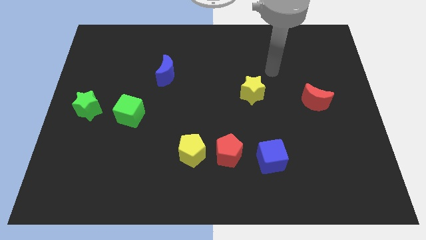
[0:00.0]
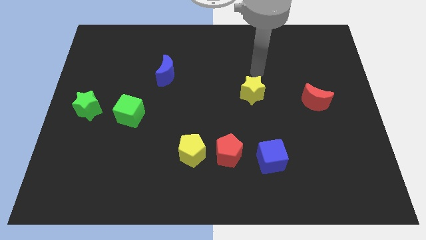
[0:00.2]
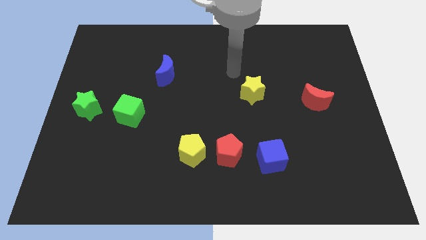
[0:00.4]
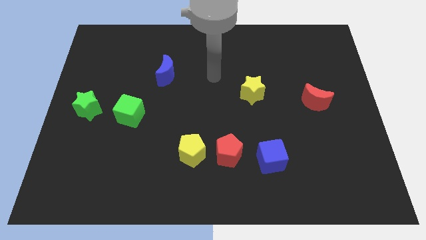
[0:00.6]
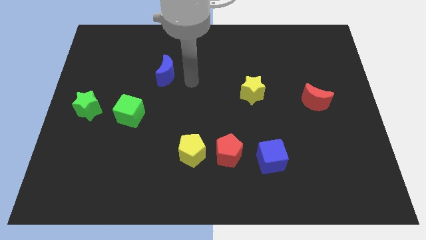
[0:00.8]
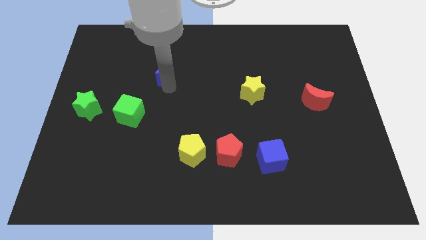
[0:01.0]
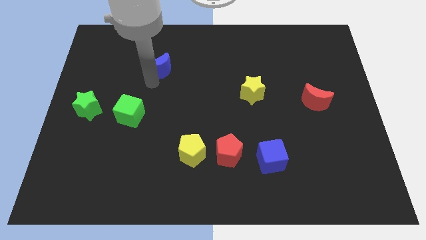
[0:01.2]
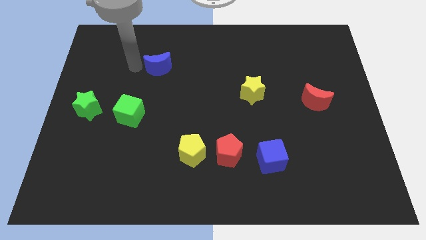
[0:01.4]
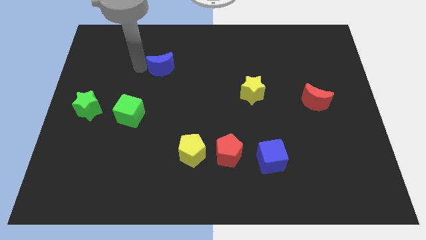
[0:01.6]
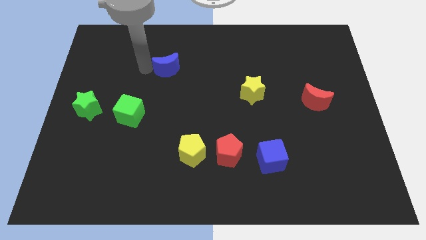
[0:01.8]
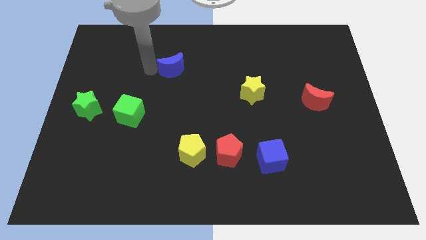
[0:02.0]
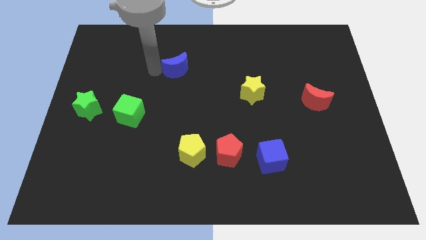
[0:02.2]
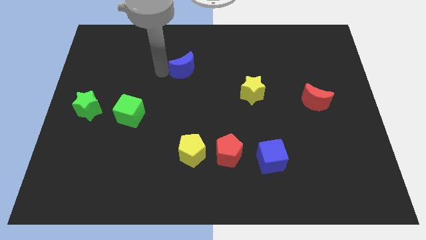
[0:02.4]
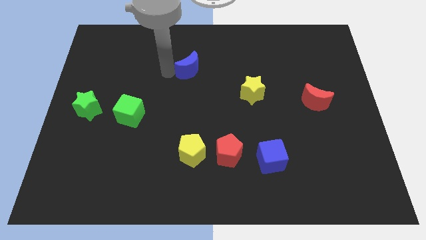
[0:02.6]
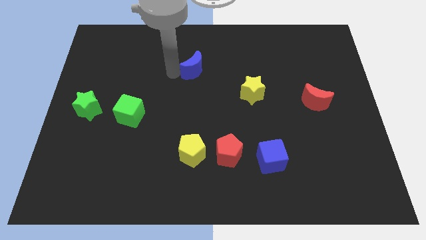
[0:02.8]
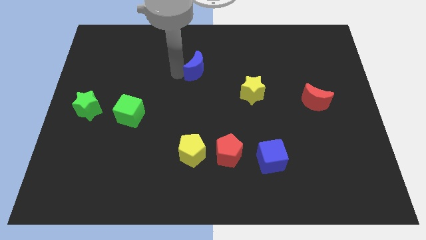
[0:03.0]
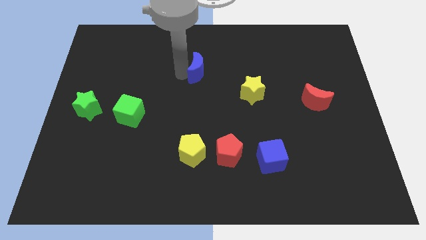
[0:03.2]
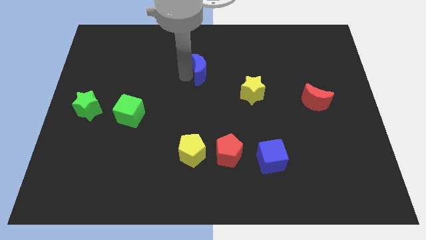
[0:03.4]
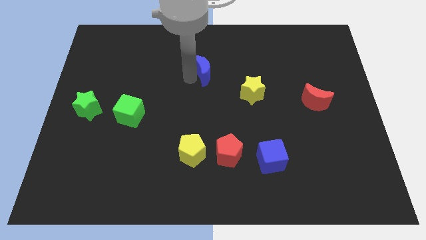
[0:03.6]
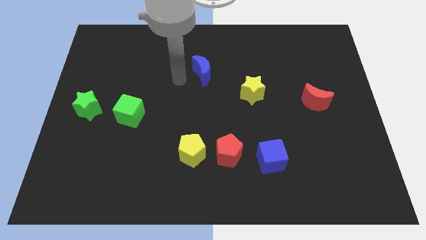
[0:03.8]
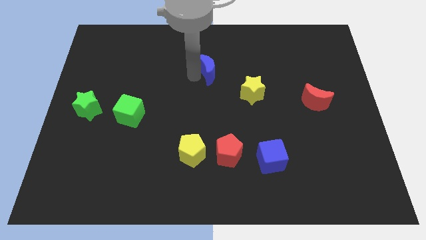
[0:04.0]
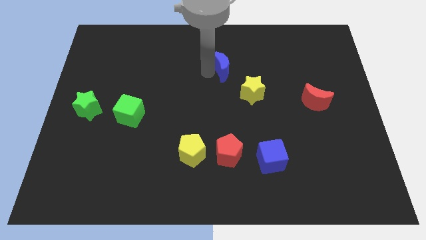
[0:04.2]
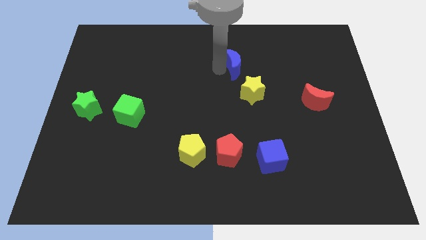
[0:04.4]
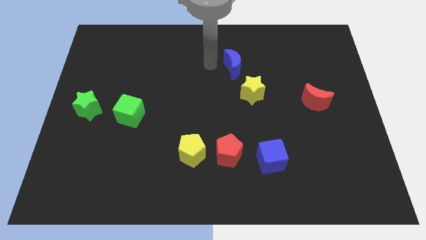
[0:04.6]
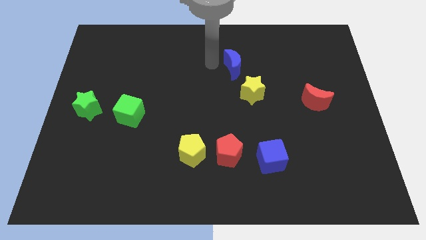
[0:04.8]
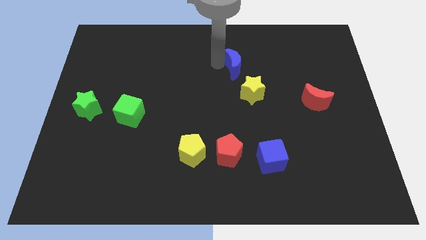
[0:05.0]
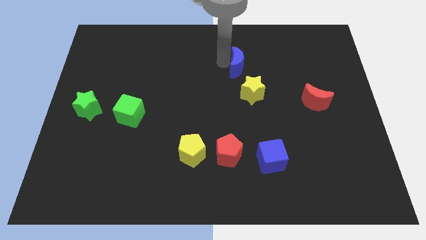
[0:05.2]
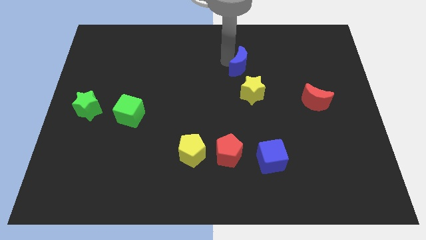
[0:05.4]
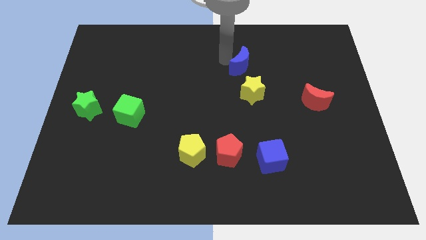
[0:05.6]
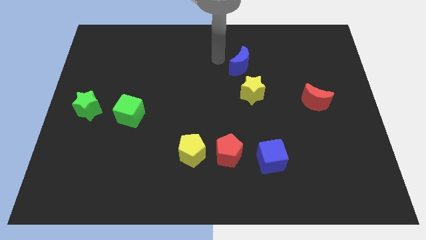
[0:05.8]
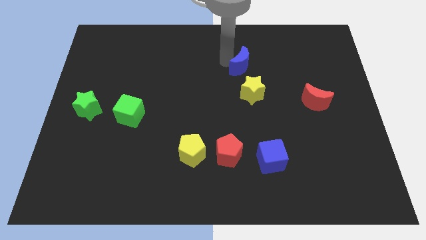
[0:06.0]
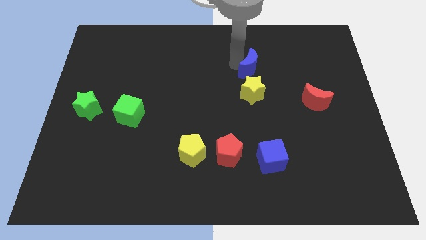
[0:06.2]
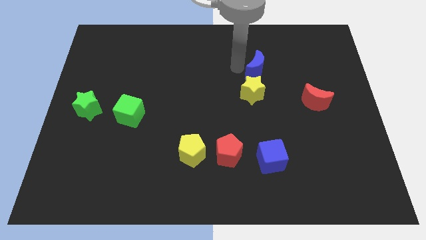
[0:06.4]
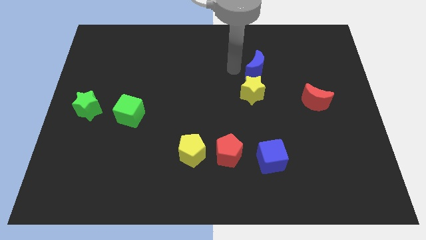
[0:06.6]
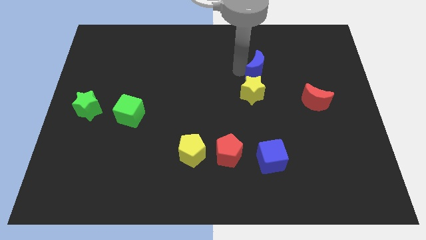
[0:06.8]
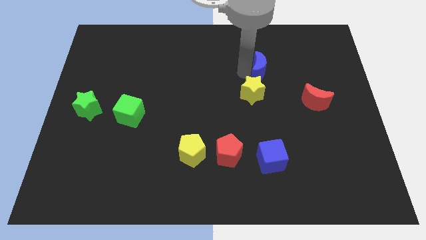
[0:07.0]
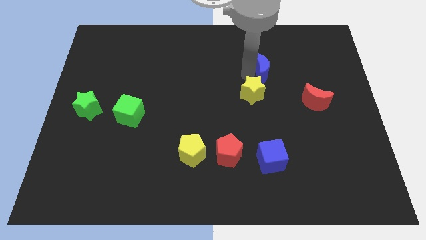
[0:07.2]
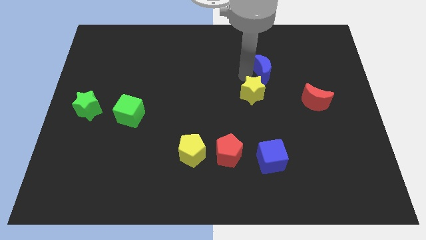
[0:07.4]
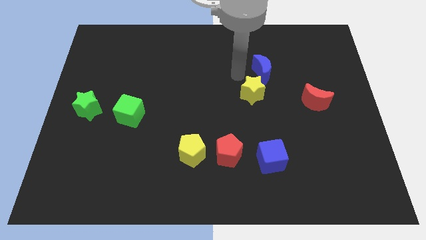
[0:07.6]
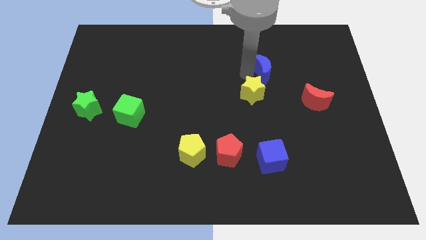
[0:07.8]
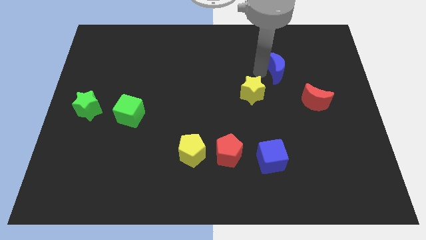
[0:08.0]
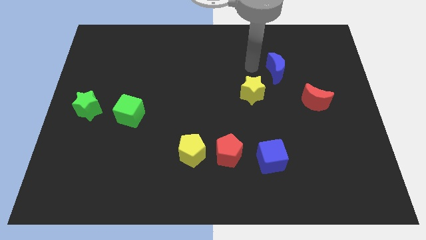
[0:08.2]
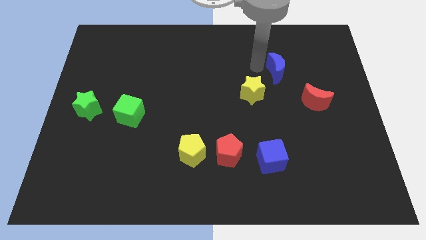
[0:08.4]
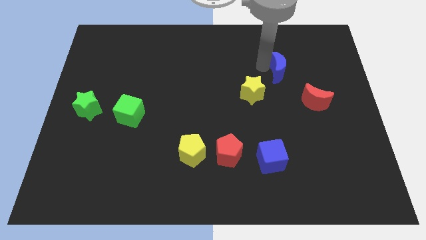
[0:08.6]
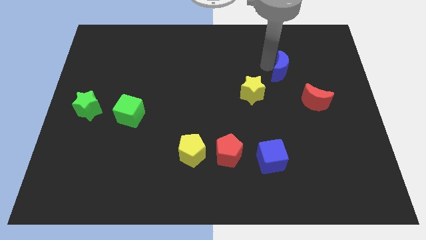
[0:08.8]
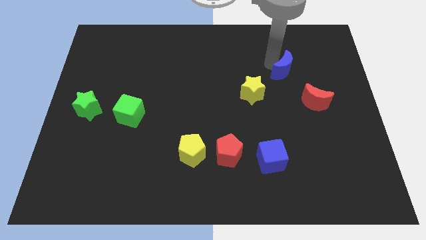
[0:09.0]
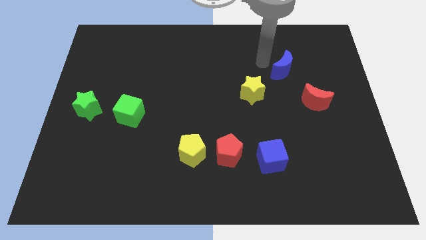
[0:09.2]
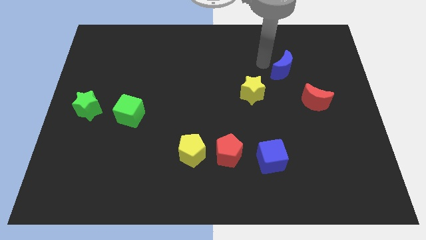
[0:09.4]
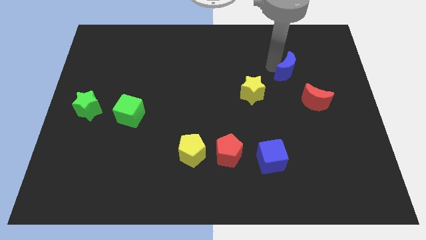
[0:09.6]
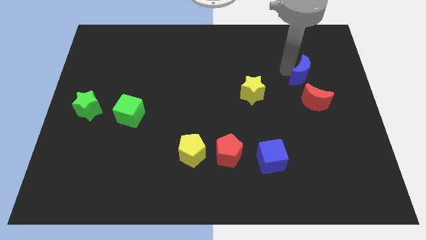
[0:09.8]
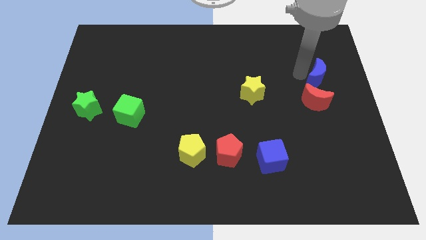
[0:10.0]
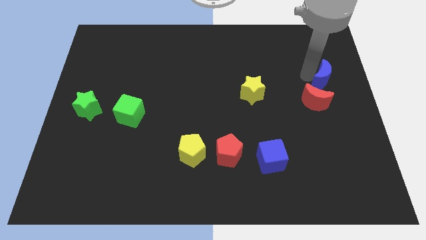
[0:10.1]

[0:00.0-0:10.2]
move the blue moon to the right side

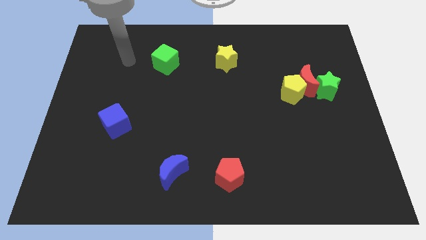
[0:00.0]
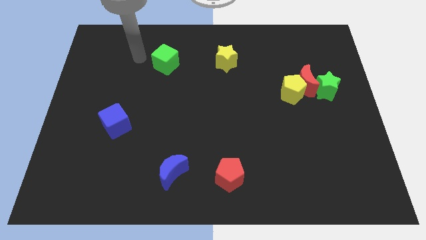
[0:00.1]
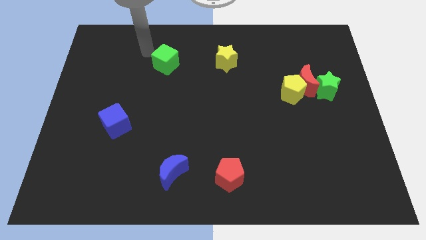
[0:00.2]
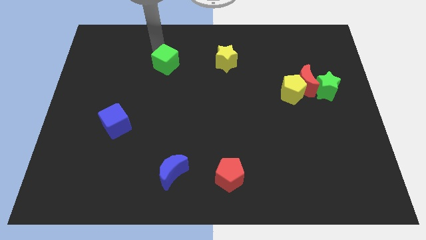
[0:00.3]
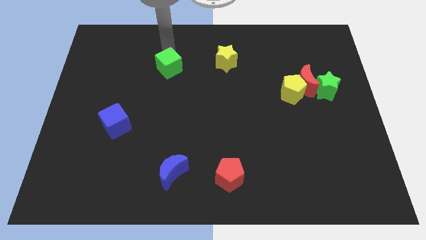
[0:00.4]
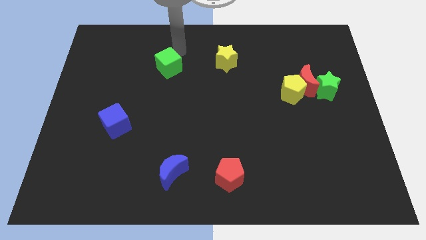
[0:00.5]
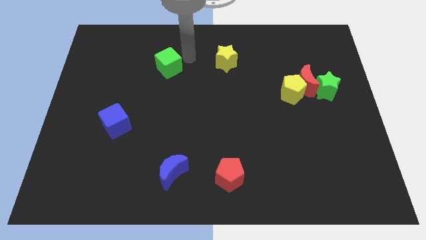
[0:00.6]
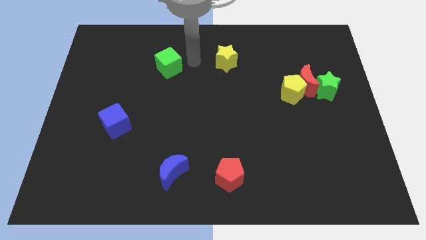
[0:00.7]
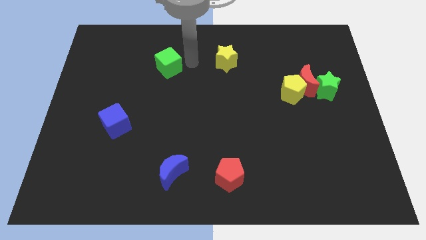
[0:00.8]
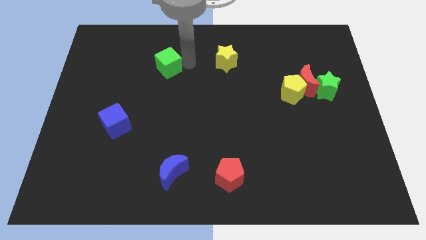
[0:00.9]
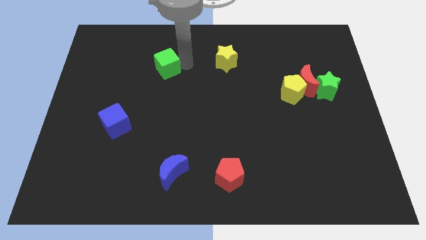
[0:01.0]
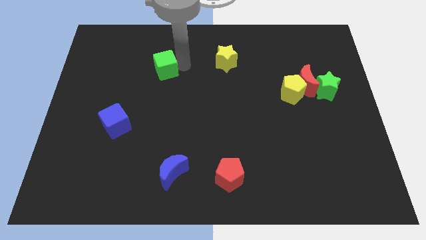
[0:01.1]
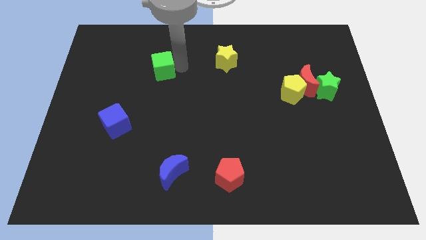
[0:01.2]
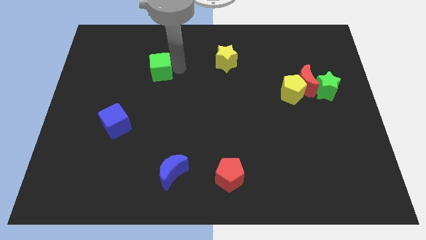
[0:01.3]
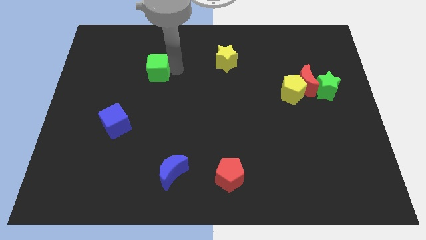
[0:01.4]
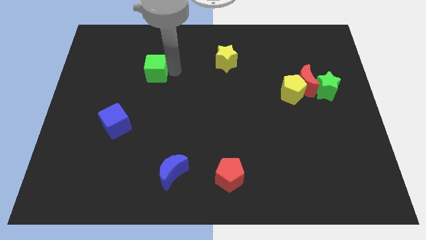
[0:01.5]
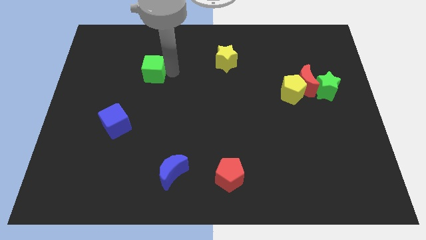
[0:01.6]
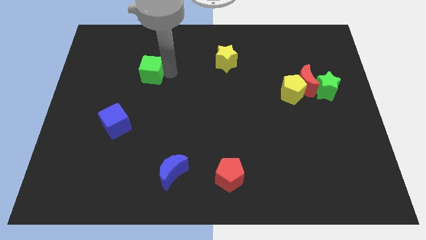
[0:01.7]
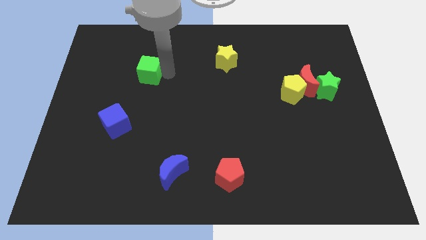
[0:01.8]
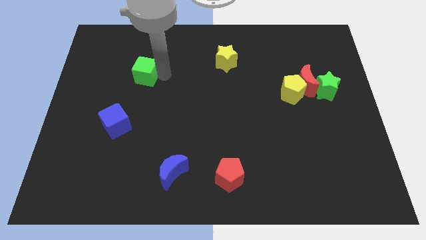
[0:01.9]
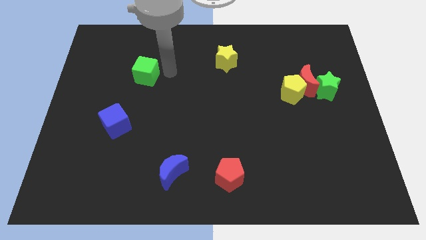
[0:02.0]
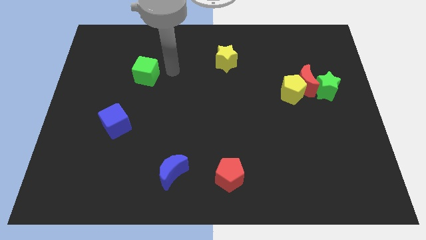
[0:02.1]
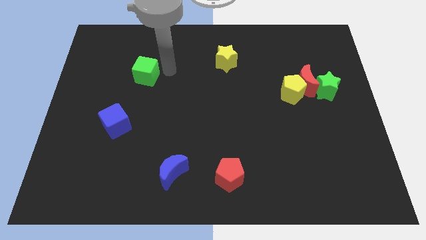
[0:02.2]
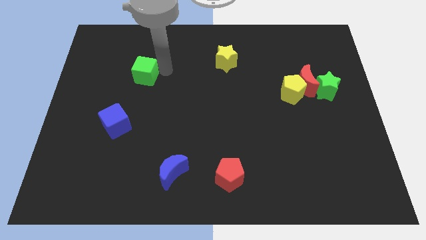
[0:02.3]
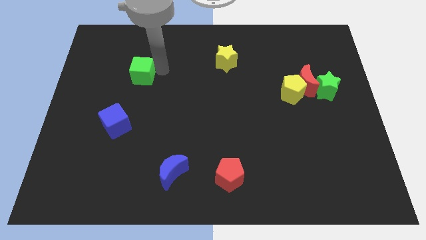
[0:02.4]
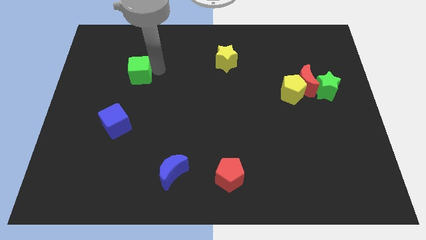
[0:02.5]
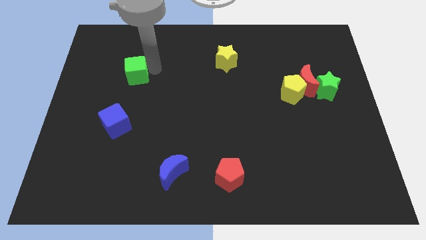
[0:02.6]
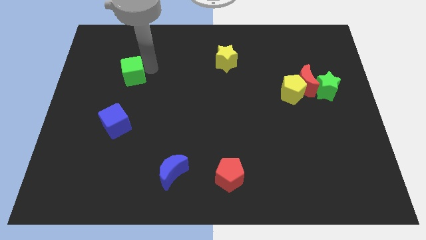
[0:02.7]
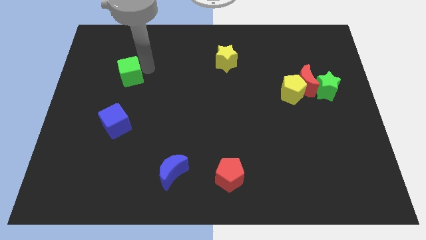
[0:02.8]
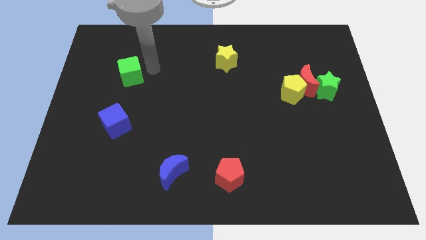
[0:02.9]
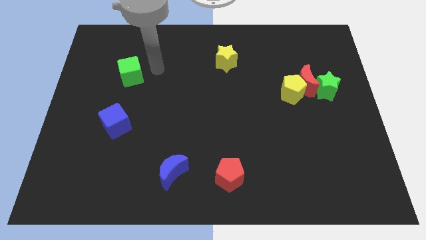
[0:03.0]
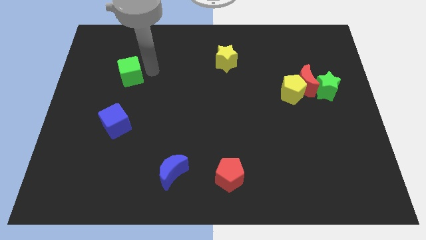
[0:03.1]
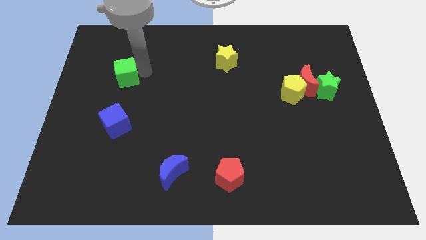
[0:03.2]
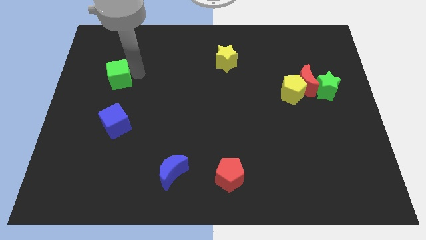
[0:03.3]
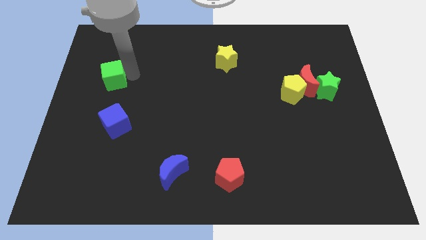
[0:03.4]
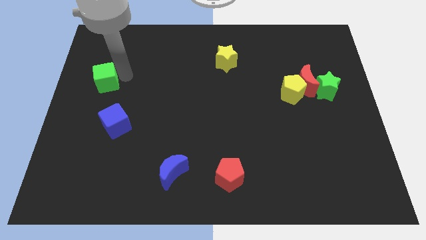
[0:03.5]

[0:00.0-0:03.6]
push the green cube to the left side of the board
